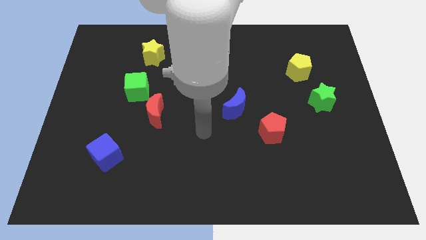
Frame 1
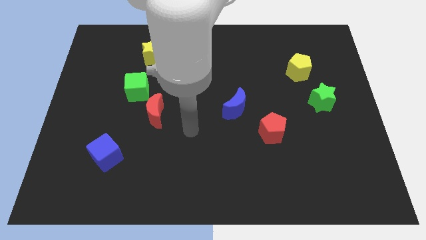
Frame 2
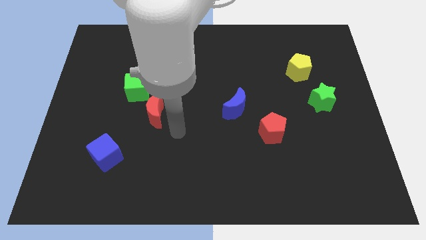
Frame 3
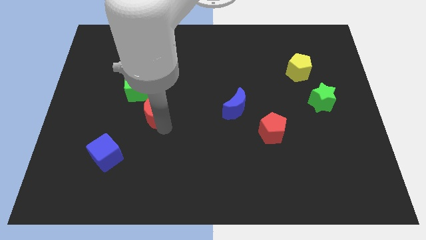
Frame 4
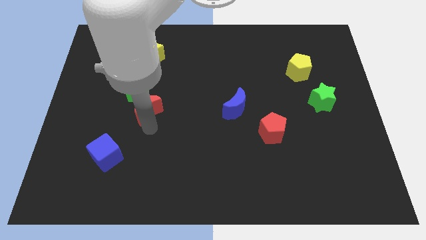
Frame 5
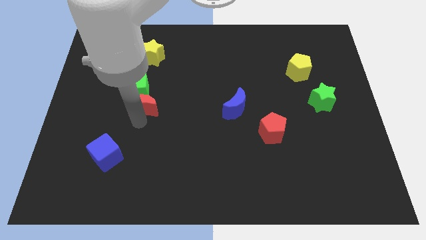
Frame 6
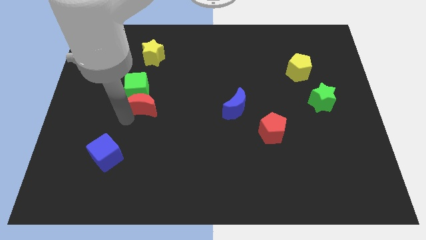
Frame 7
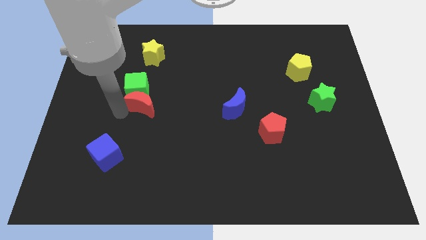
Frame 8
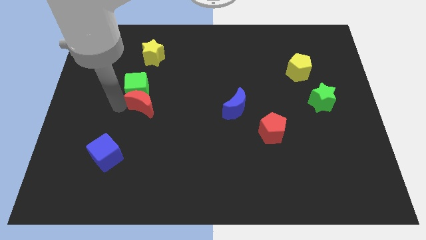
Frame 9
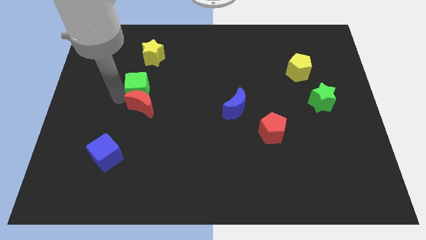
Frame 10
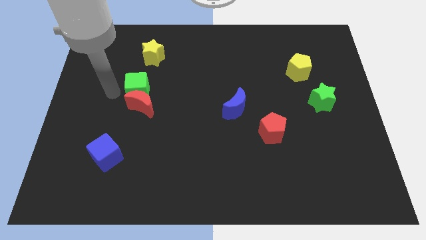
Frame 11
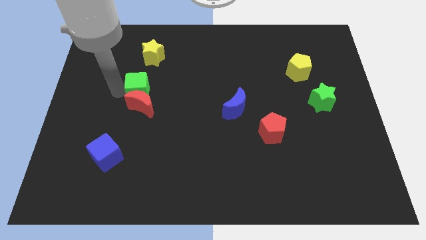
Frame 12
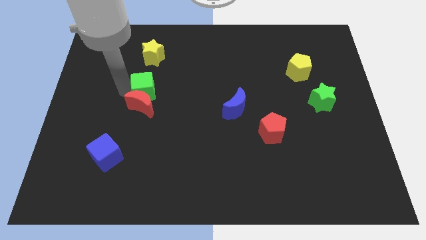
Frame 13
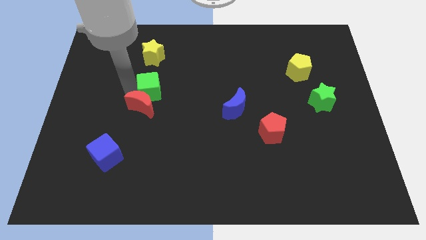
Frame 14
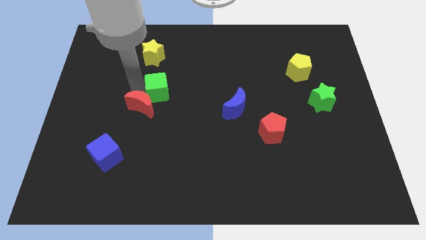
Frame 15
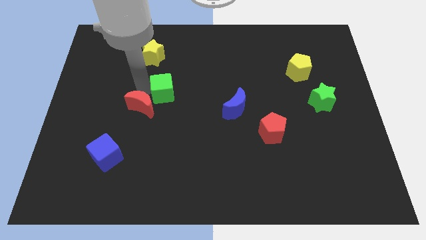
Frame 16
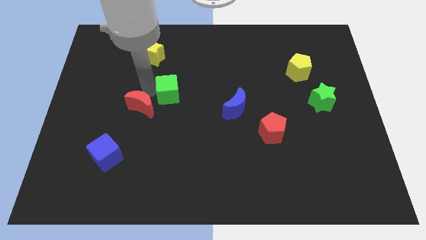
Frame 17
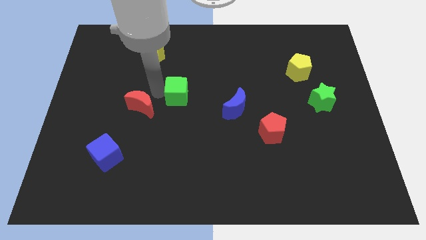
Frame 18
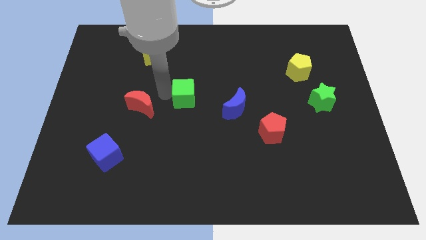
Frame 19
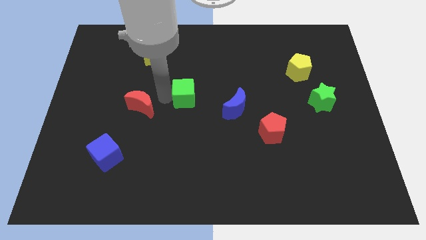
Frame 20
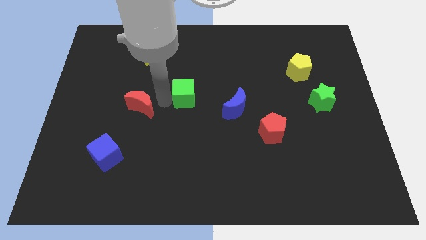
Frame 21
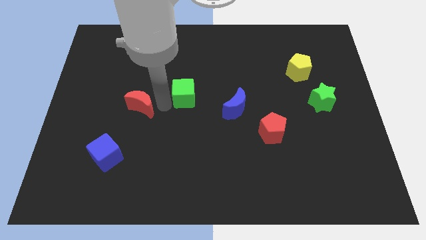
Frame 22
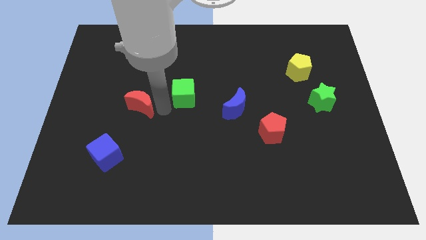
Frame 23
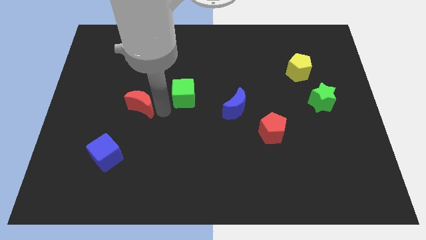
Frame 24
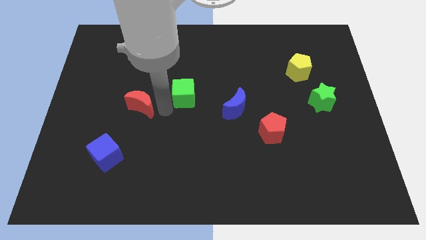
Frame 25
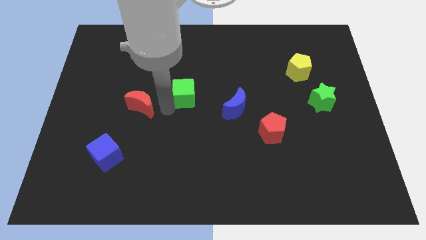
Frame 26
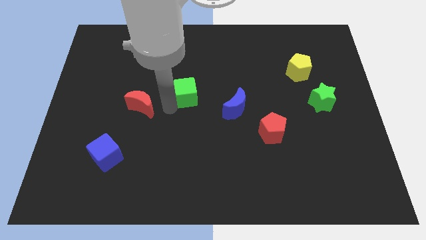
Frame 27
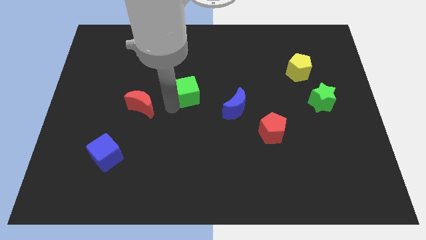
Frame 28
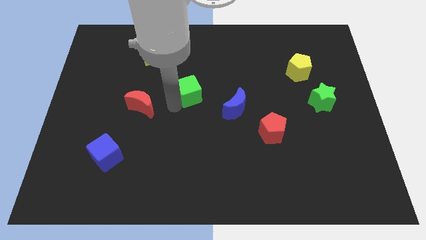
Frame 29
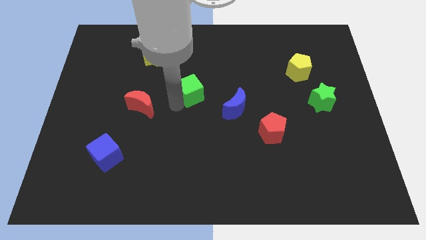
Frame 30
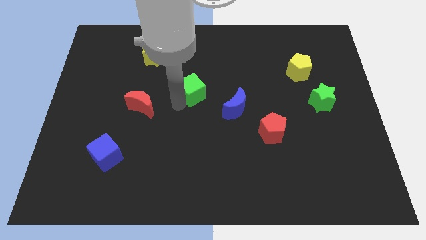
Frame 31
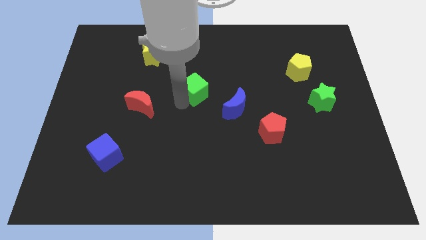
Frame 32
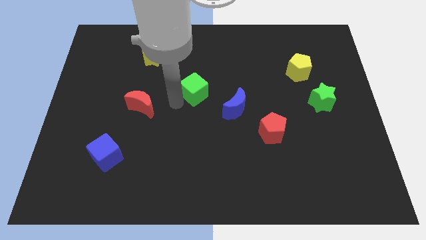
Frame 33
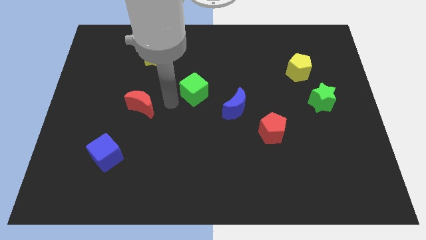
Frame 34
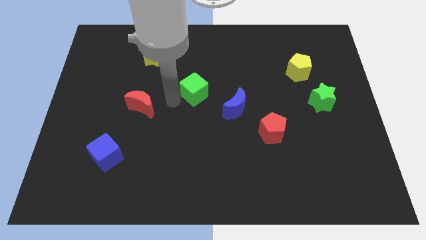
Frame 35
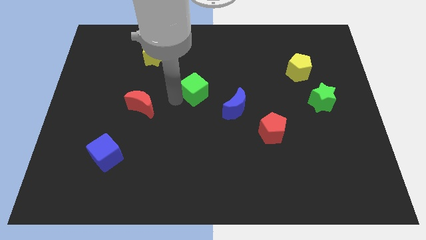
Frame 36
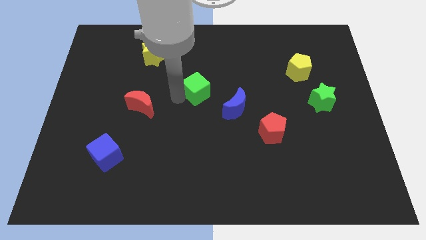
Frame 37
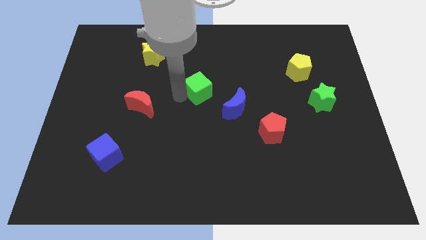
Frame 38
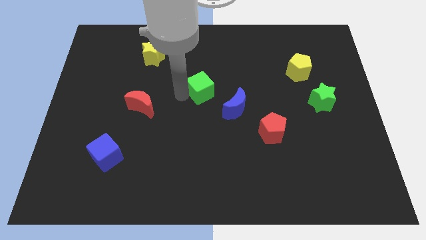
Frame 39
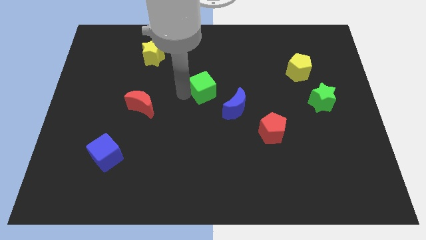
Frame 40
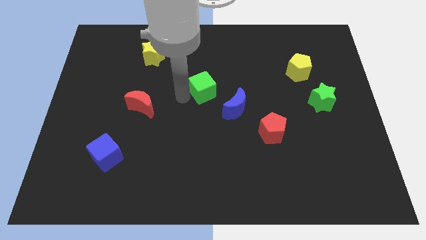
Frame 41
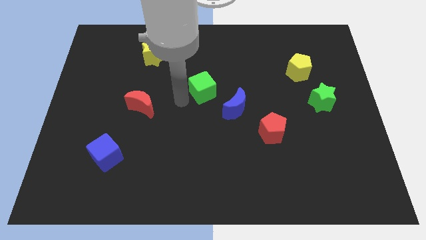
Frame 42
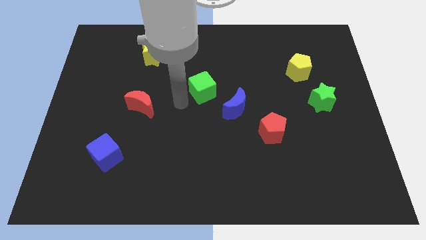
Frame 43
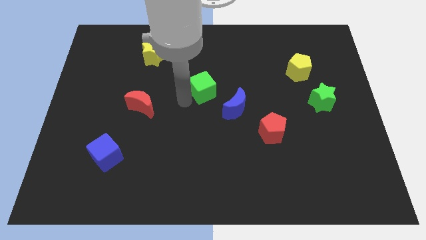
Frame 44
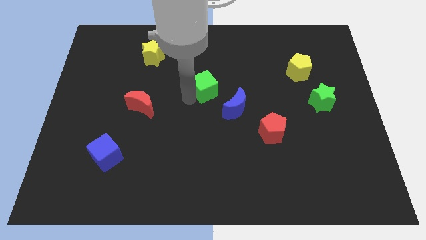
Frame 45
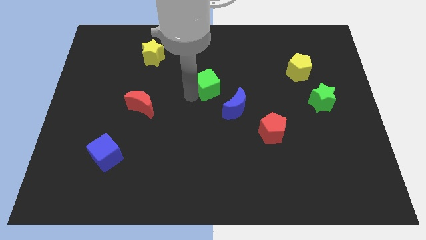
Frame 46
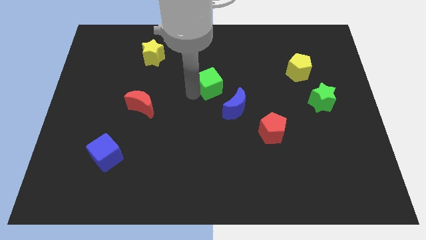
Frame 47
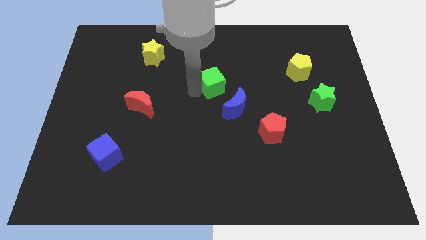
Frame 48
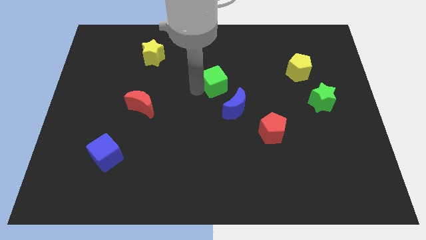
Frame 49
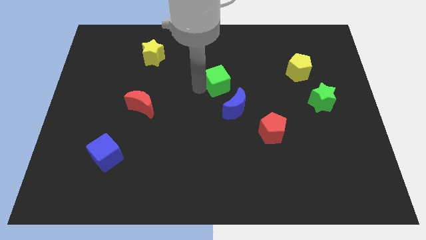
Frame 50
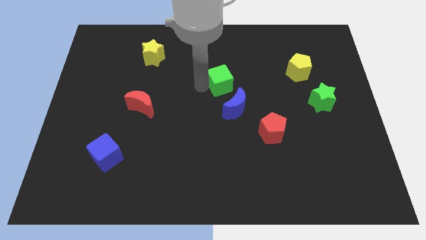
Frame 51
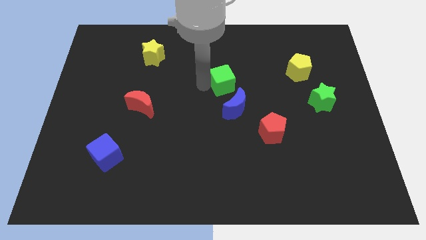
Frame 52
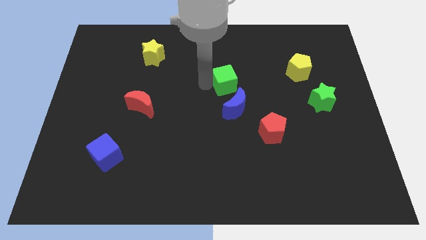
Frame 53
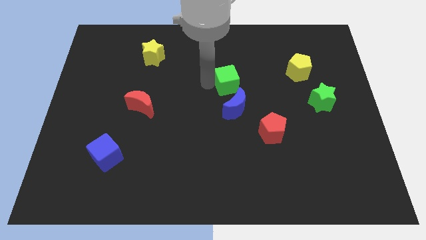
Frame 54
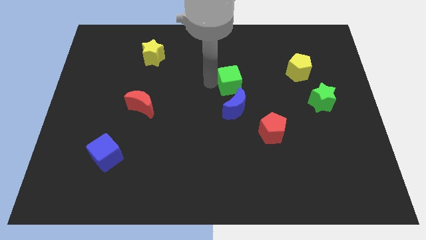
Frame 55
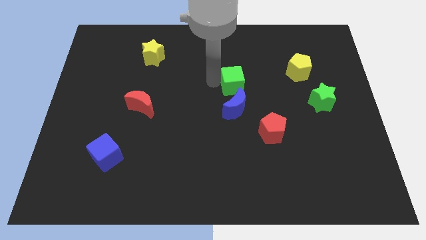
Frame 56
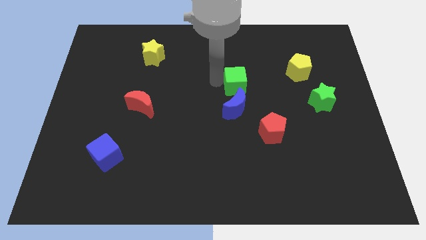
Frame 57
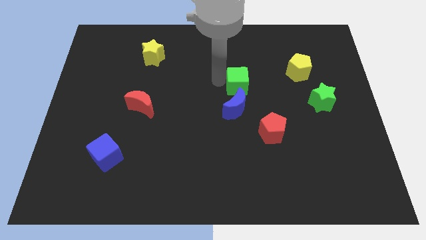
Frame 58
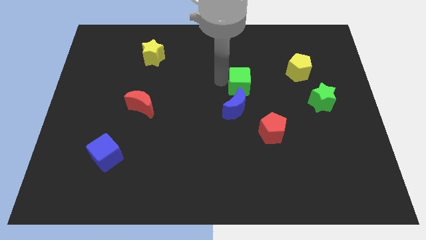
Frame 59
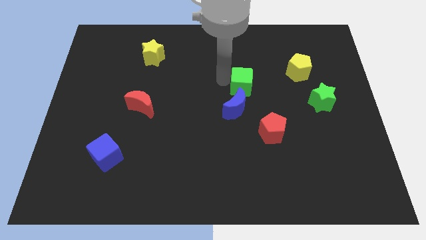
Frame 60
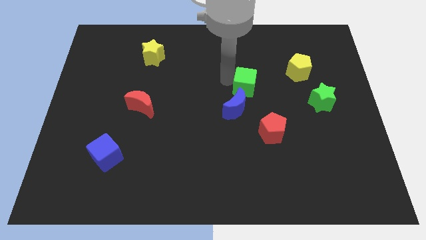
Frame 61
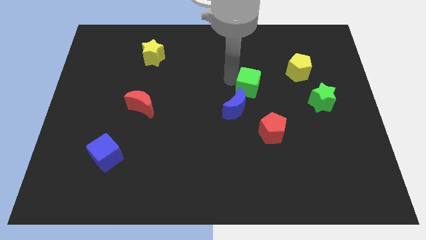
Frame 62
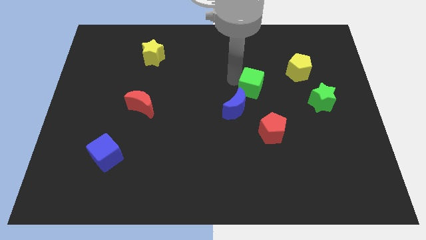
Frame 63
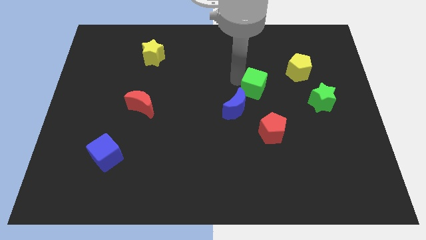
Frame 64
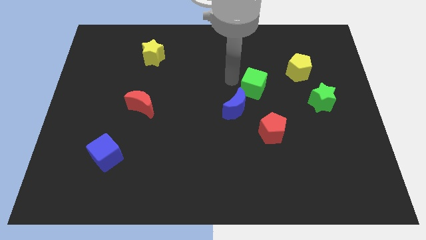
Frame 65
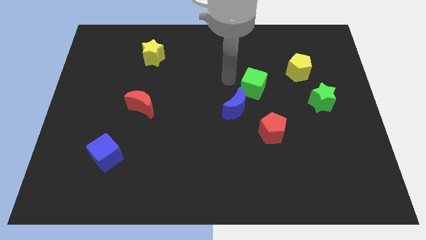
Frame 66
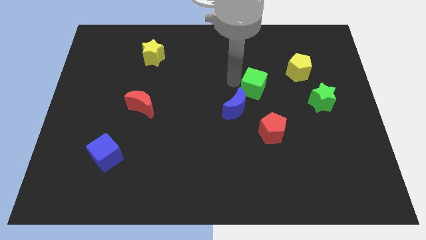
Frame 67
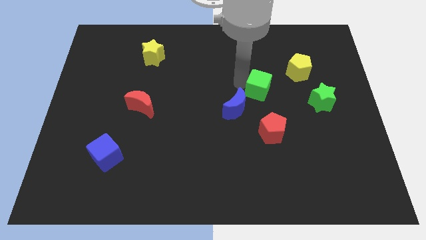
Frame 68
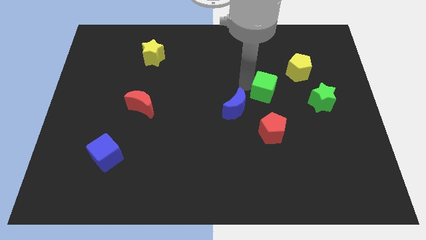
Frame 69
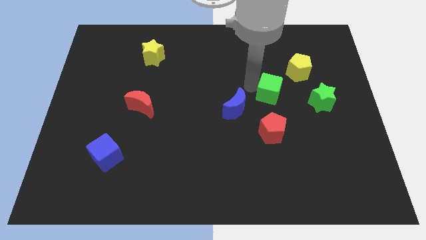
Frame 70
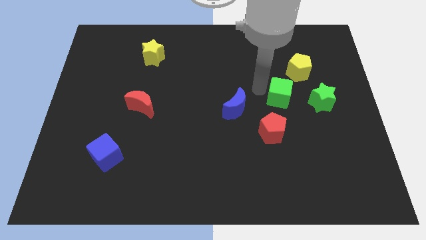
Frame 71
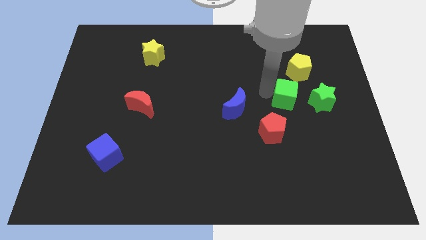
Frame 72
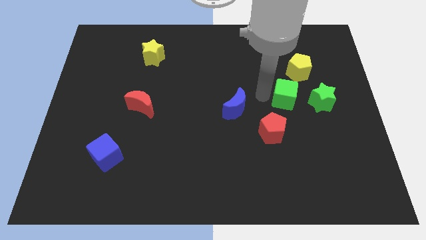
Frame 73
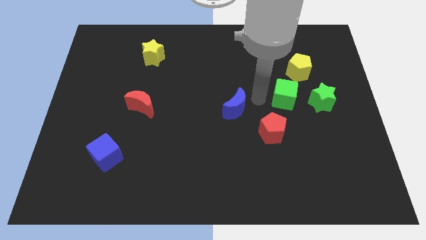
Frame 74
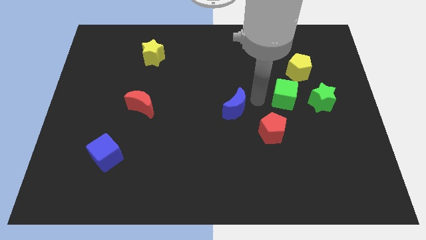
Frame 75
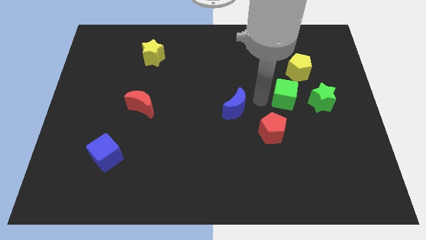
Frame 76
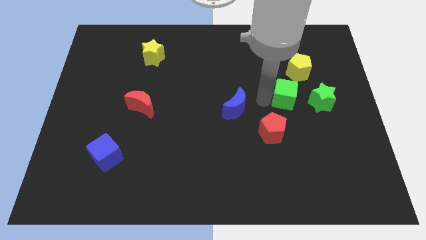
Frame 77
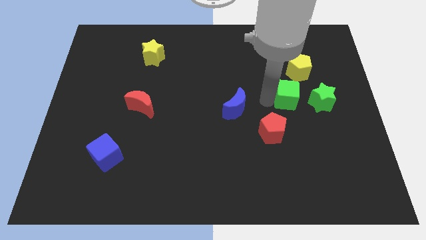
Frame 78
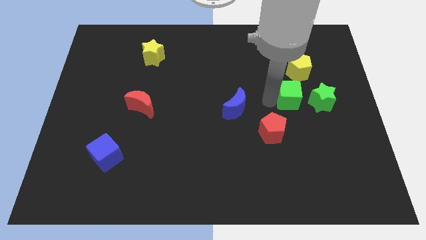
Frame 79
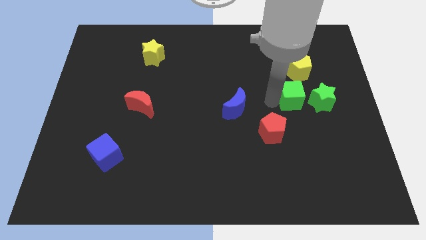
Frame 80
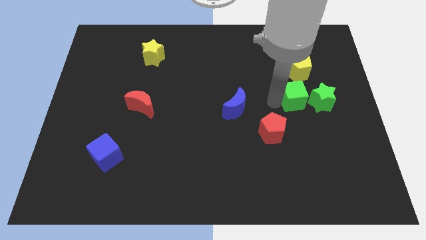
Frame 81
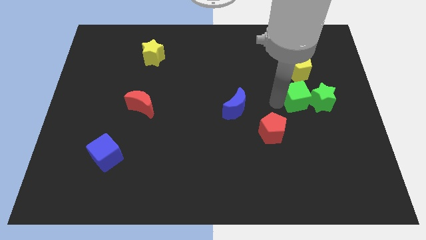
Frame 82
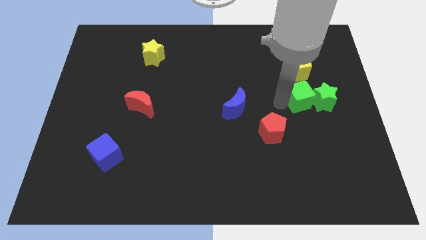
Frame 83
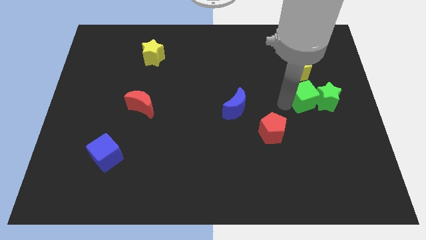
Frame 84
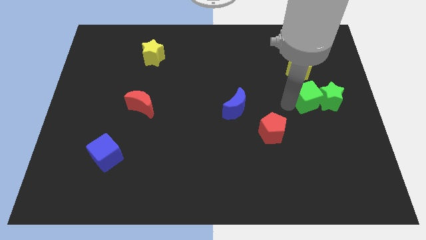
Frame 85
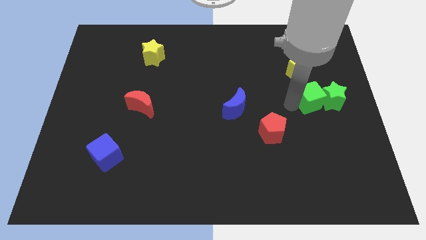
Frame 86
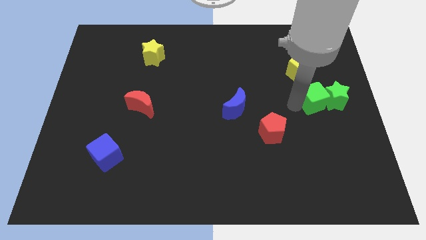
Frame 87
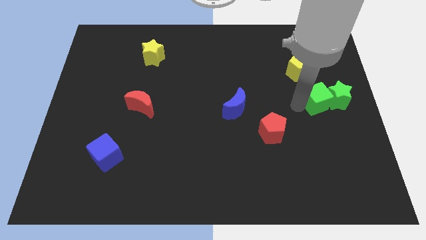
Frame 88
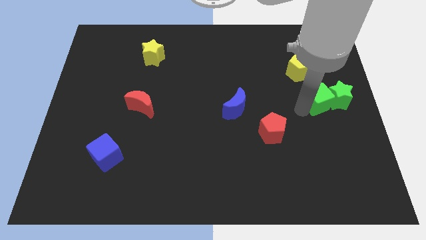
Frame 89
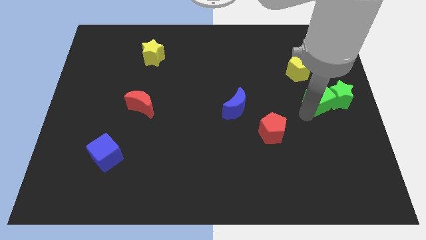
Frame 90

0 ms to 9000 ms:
push the green cube to the right side of the board
